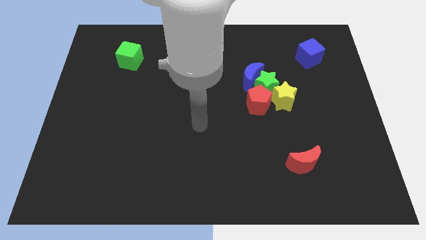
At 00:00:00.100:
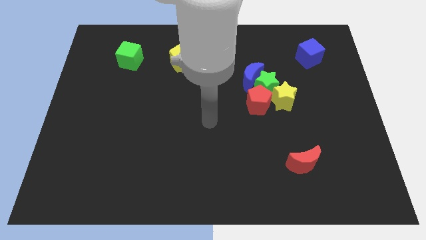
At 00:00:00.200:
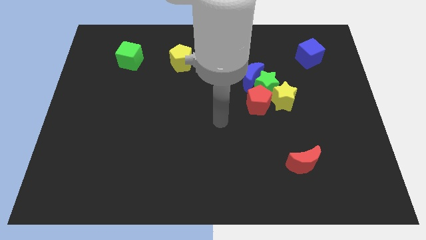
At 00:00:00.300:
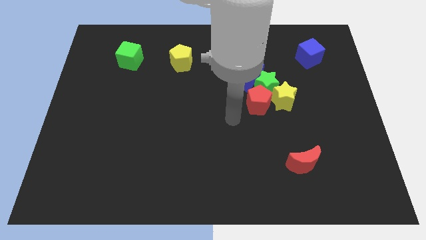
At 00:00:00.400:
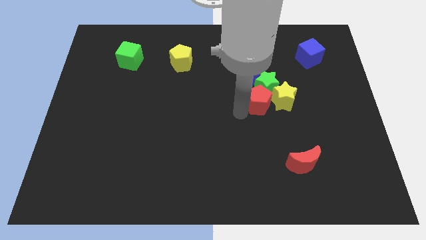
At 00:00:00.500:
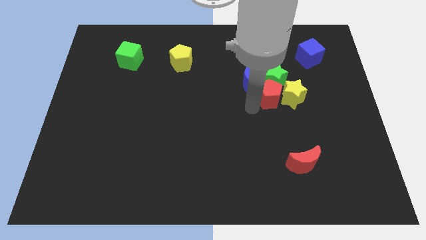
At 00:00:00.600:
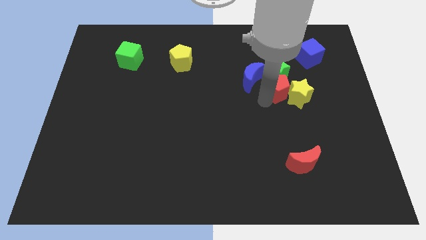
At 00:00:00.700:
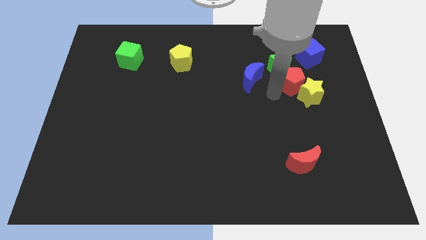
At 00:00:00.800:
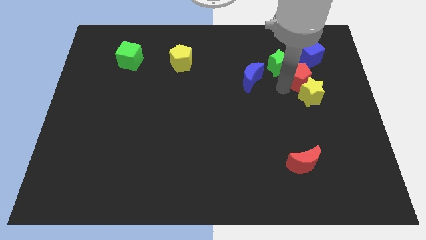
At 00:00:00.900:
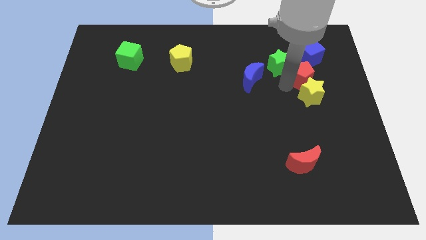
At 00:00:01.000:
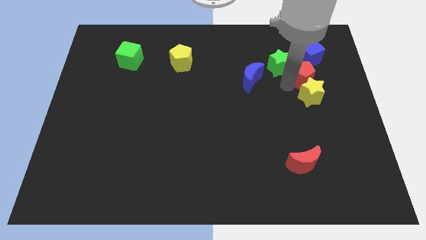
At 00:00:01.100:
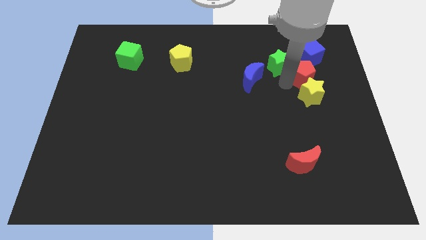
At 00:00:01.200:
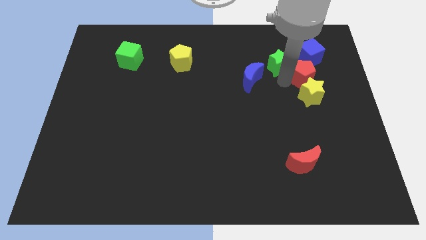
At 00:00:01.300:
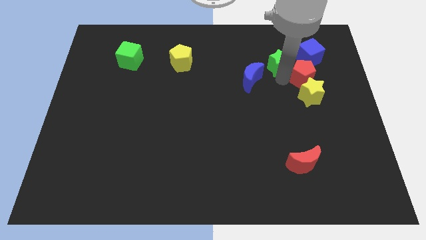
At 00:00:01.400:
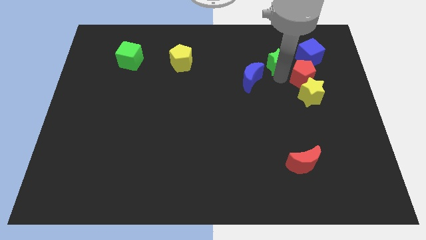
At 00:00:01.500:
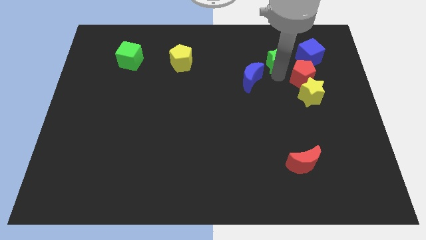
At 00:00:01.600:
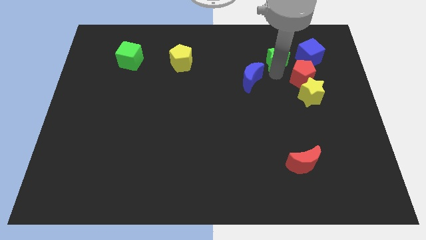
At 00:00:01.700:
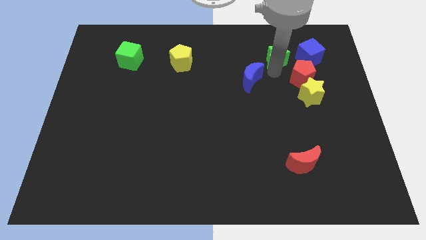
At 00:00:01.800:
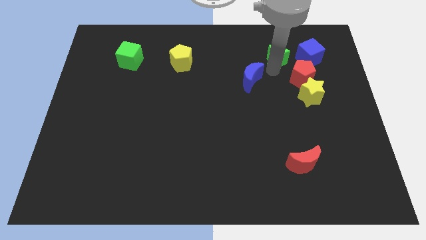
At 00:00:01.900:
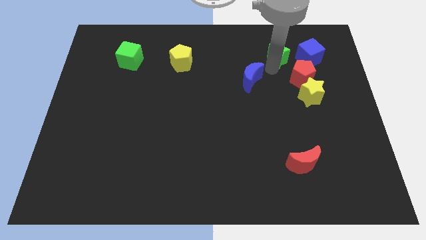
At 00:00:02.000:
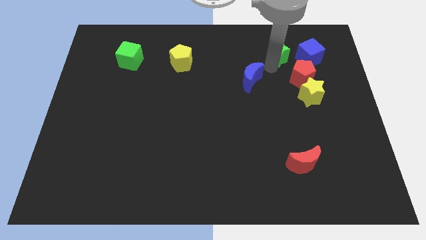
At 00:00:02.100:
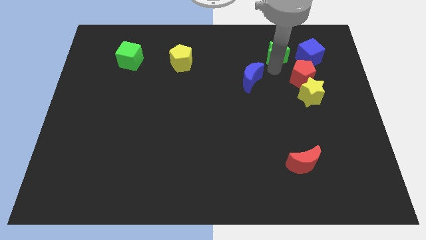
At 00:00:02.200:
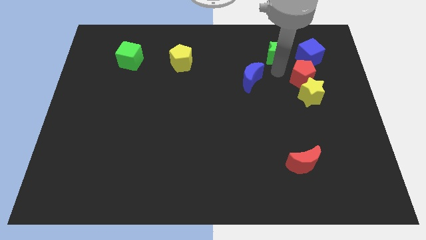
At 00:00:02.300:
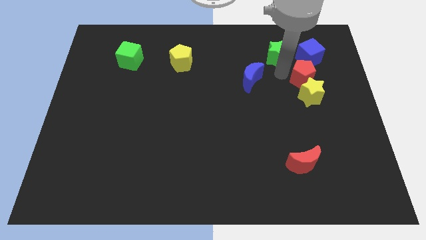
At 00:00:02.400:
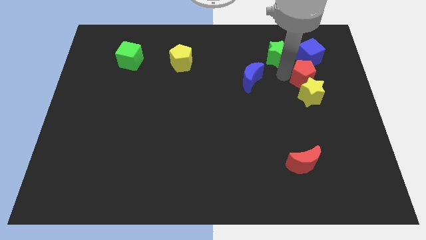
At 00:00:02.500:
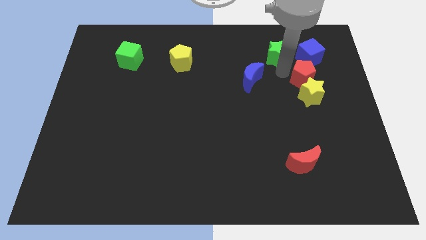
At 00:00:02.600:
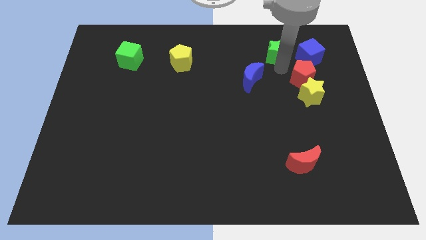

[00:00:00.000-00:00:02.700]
pull the green star apart from the blue moon, red pentagon, and yellow star

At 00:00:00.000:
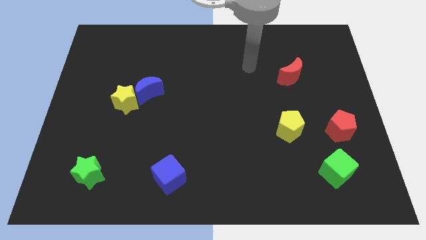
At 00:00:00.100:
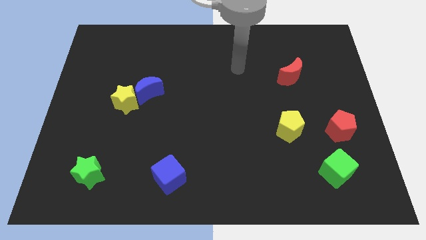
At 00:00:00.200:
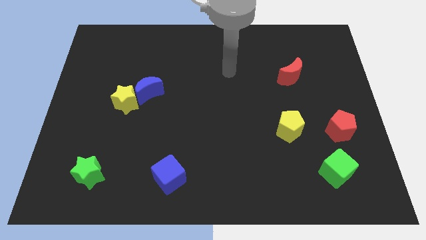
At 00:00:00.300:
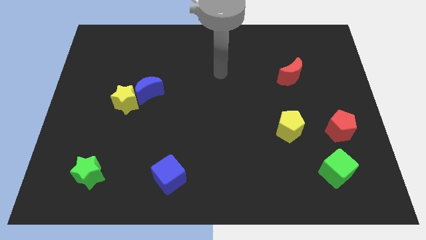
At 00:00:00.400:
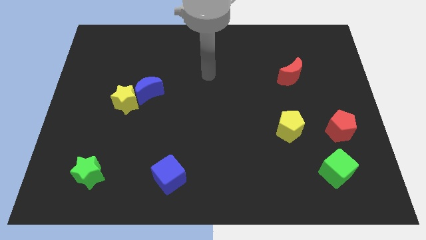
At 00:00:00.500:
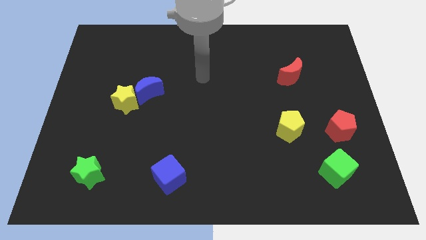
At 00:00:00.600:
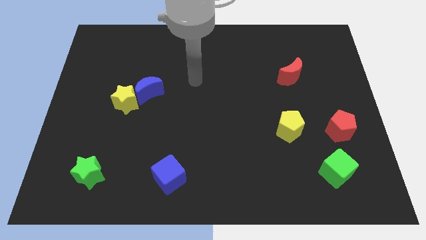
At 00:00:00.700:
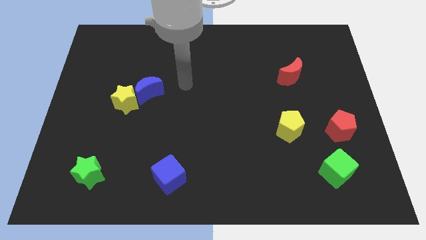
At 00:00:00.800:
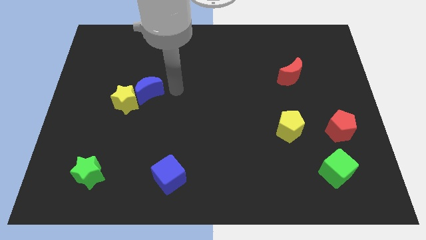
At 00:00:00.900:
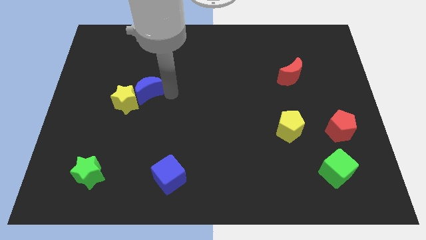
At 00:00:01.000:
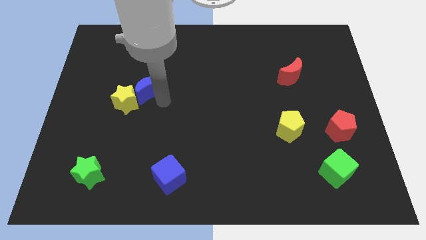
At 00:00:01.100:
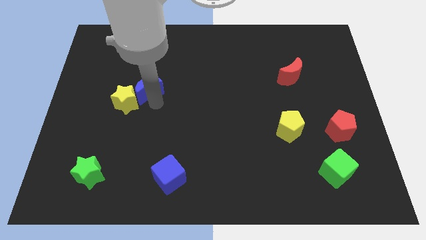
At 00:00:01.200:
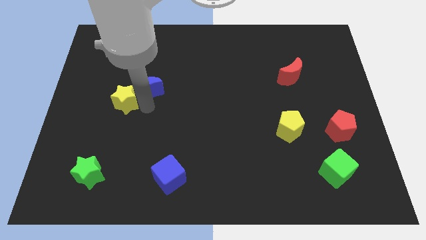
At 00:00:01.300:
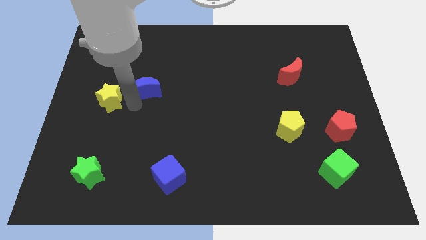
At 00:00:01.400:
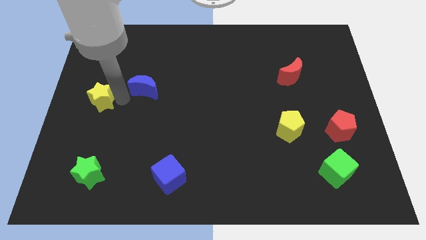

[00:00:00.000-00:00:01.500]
move the blue moon away from the yellow star

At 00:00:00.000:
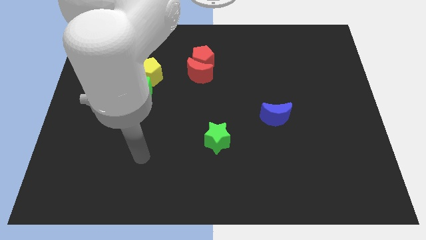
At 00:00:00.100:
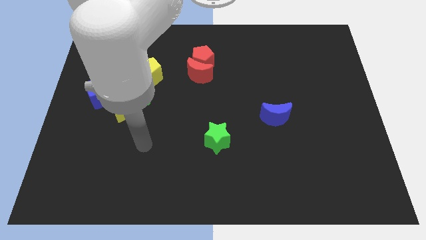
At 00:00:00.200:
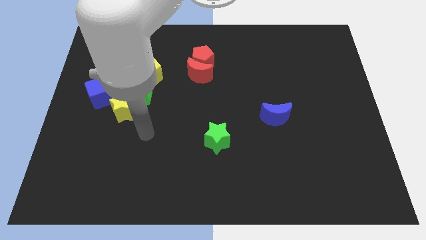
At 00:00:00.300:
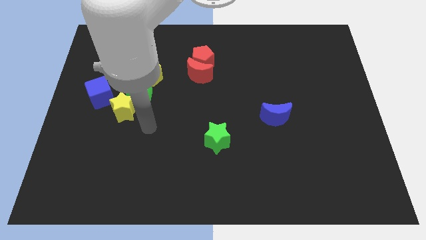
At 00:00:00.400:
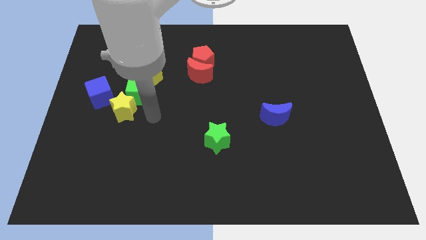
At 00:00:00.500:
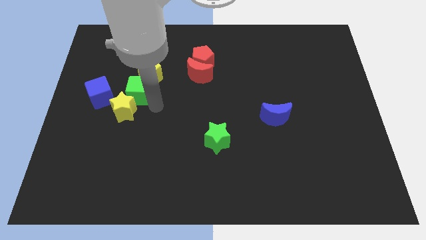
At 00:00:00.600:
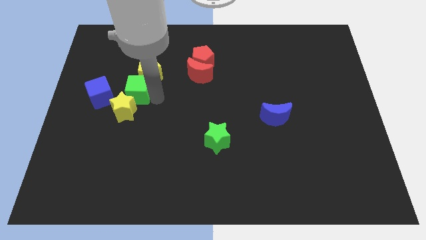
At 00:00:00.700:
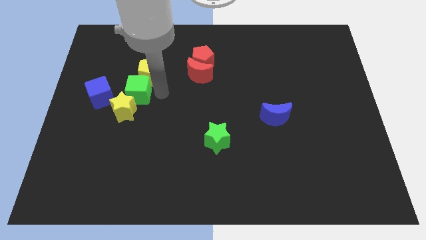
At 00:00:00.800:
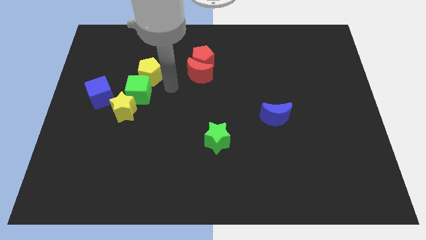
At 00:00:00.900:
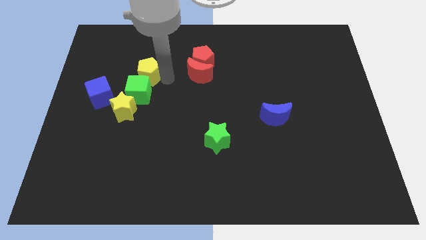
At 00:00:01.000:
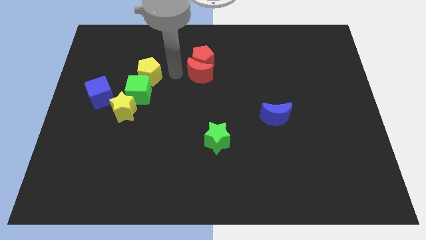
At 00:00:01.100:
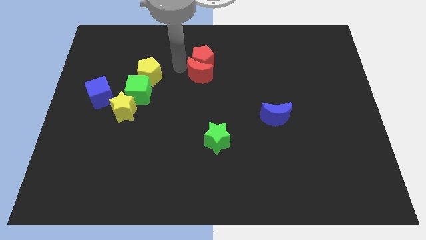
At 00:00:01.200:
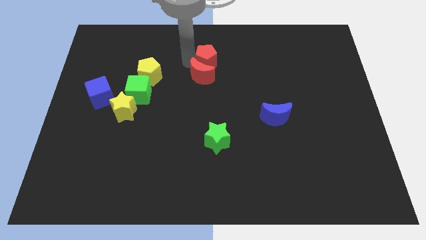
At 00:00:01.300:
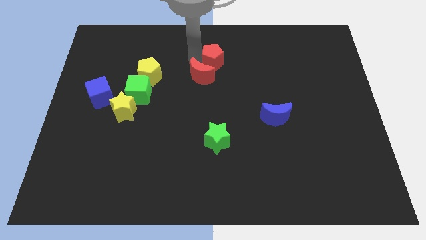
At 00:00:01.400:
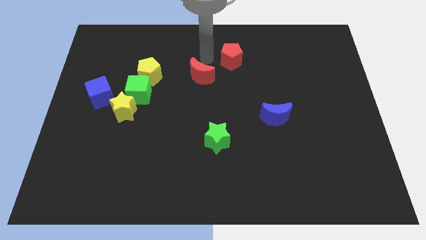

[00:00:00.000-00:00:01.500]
separate the red moon from the red pentagon

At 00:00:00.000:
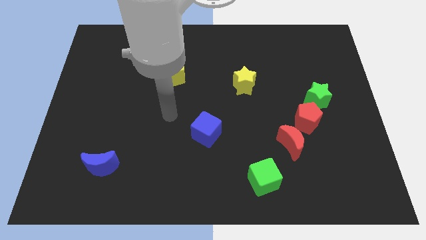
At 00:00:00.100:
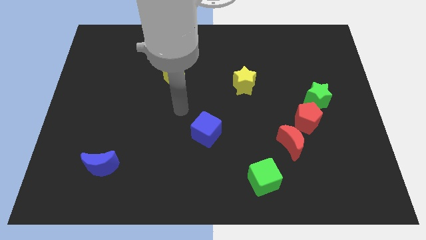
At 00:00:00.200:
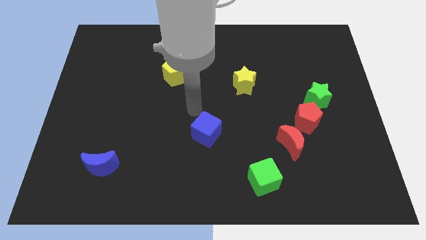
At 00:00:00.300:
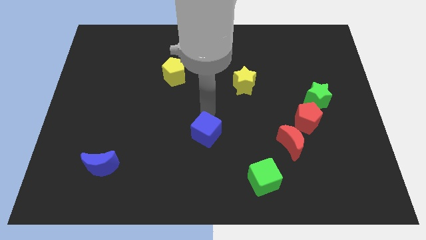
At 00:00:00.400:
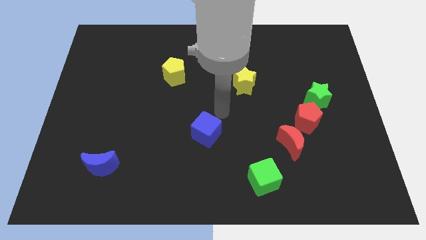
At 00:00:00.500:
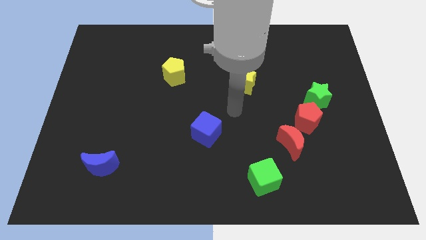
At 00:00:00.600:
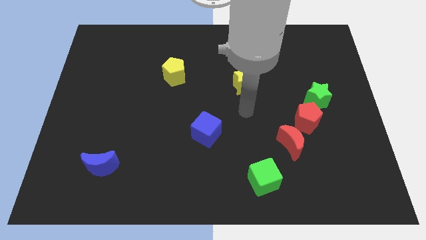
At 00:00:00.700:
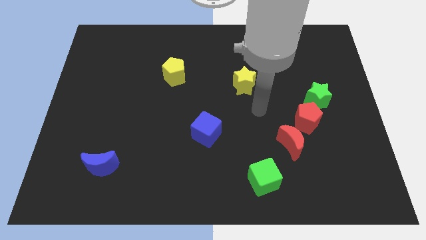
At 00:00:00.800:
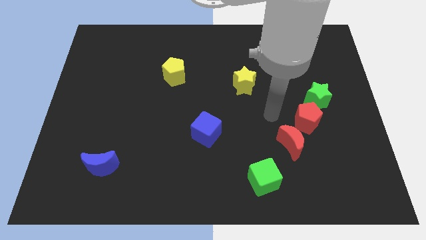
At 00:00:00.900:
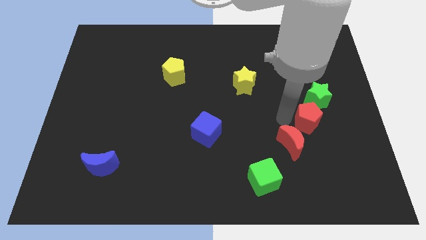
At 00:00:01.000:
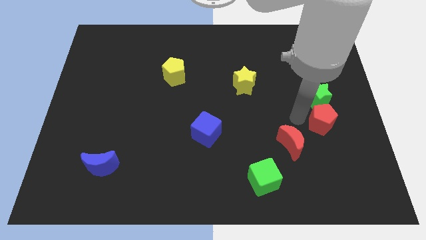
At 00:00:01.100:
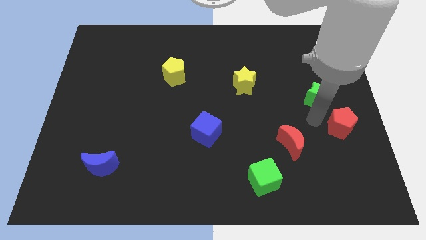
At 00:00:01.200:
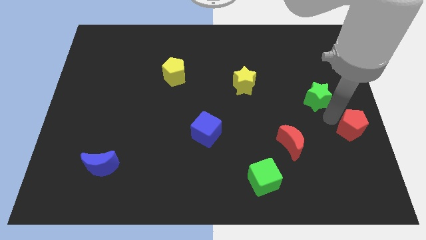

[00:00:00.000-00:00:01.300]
separate the green star from the red pentagon

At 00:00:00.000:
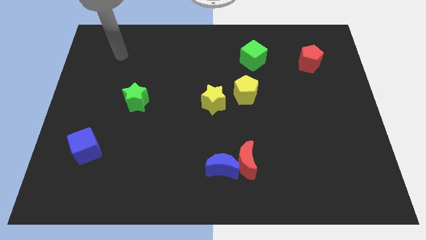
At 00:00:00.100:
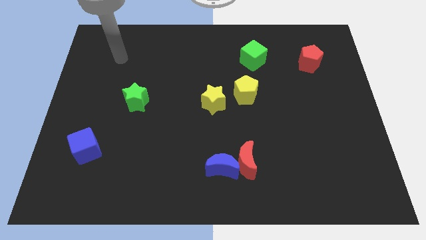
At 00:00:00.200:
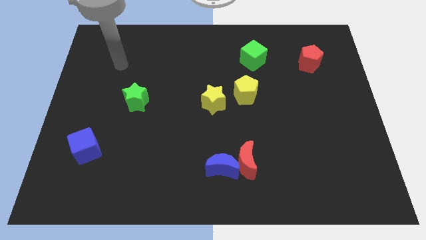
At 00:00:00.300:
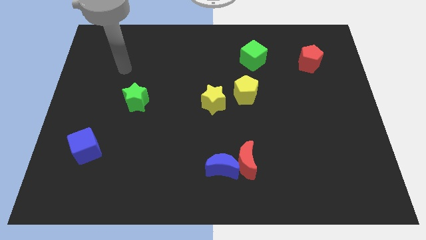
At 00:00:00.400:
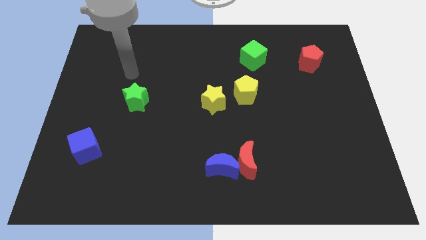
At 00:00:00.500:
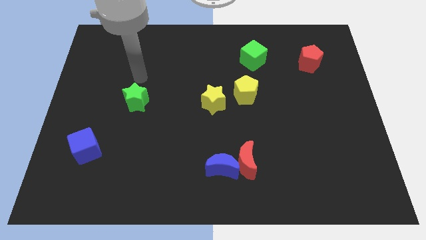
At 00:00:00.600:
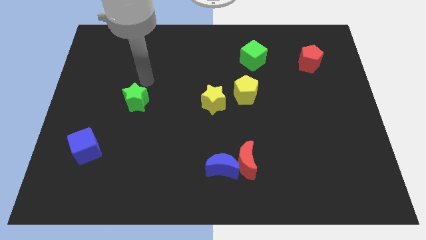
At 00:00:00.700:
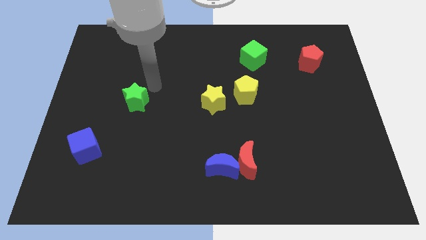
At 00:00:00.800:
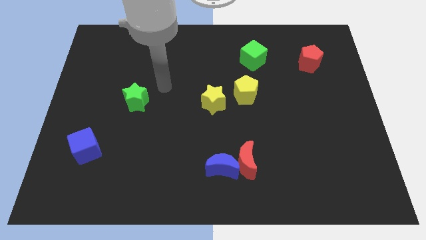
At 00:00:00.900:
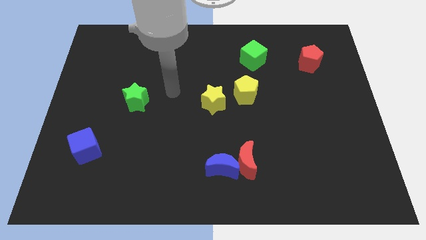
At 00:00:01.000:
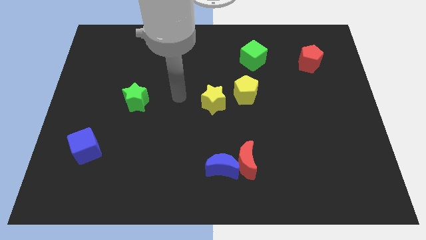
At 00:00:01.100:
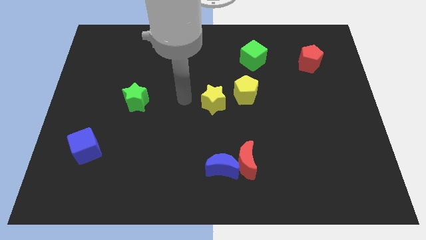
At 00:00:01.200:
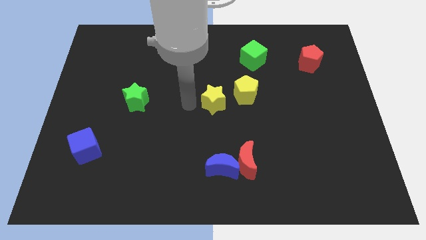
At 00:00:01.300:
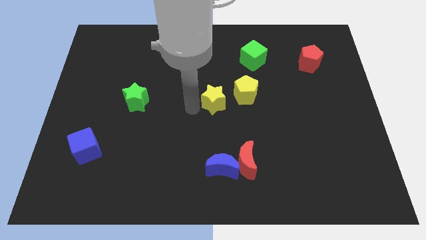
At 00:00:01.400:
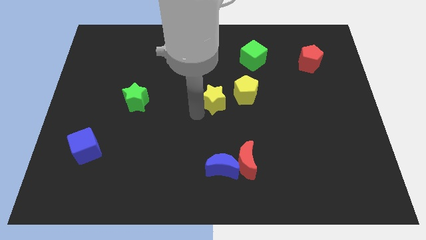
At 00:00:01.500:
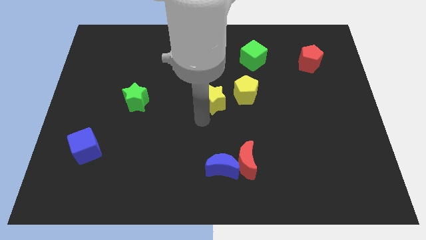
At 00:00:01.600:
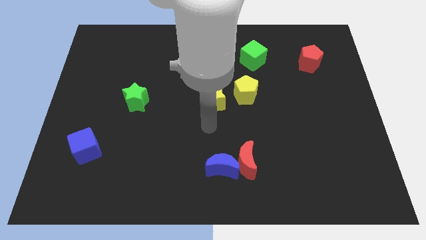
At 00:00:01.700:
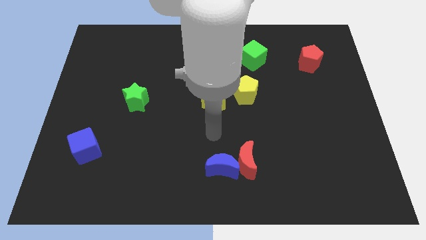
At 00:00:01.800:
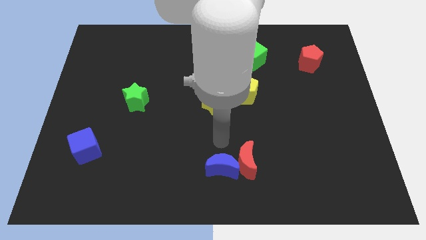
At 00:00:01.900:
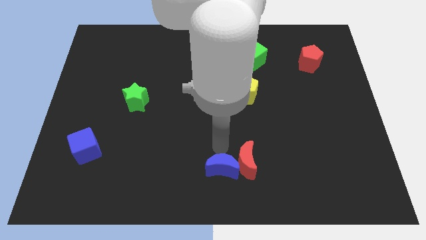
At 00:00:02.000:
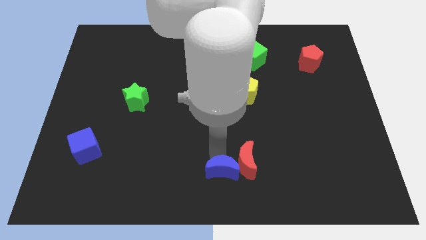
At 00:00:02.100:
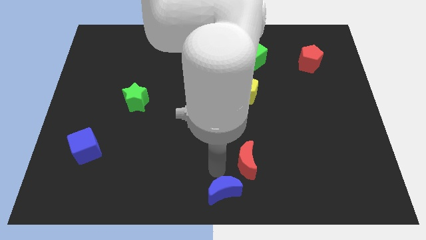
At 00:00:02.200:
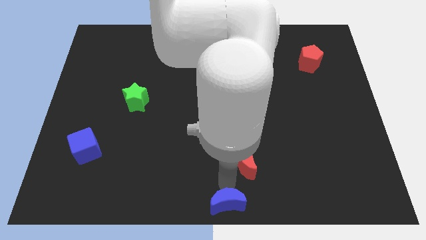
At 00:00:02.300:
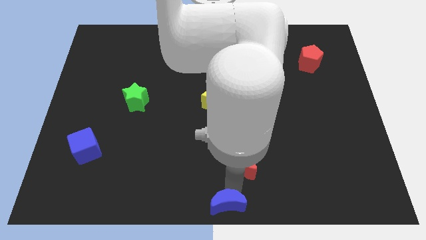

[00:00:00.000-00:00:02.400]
separate the red moon from the blue moon
